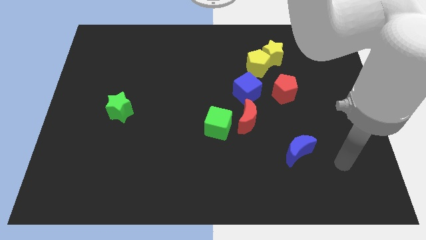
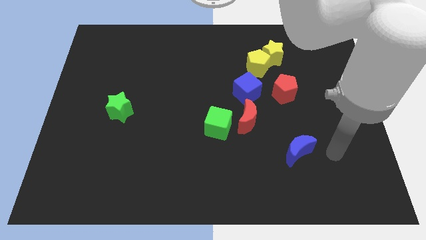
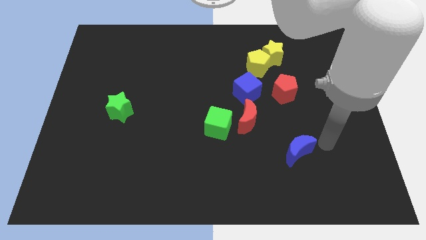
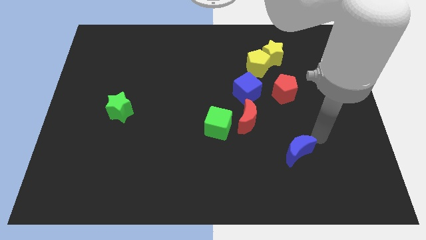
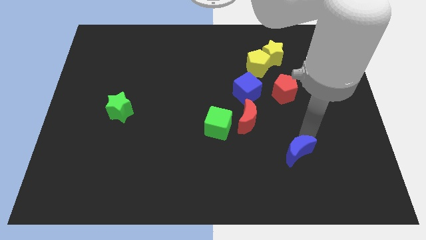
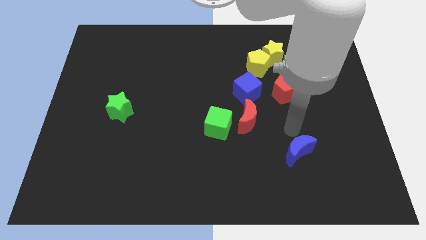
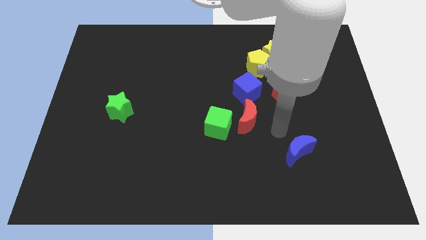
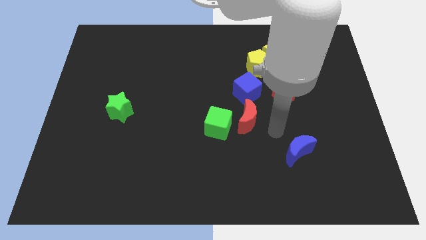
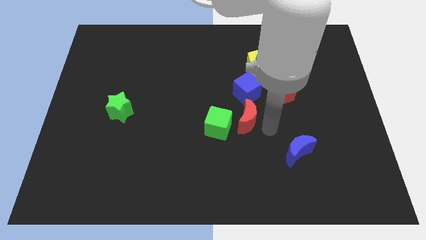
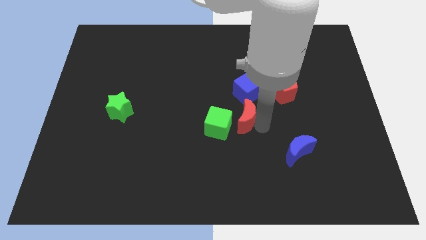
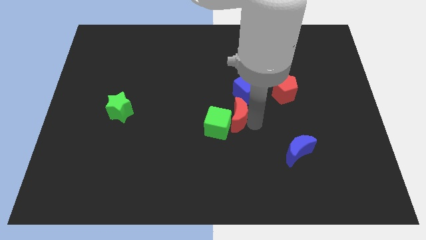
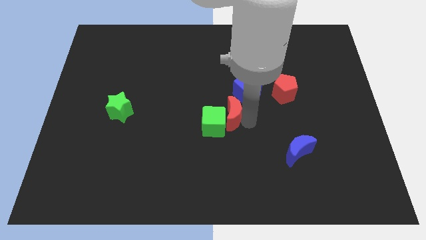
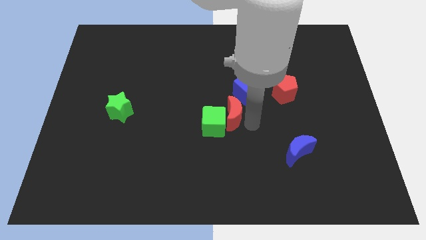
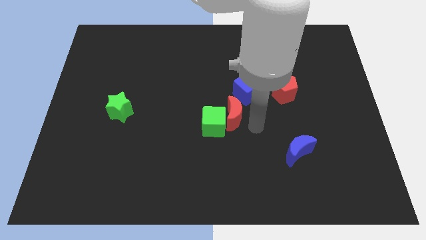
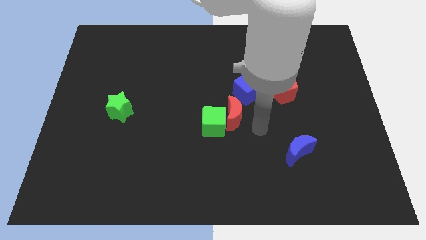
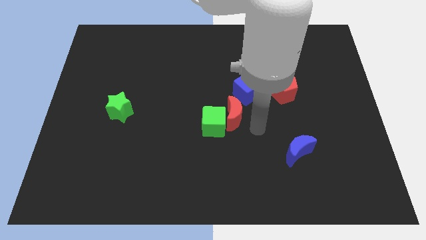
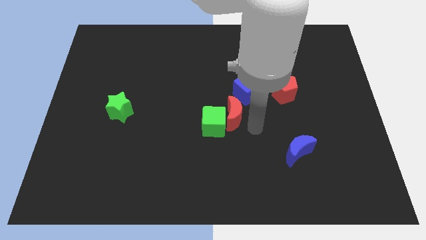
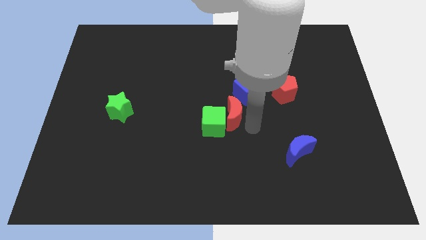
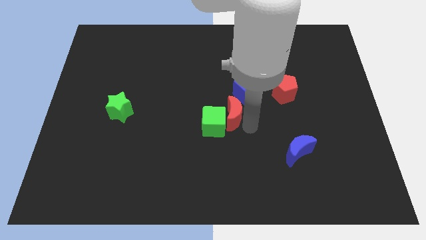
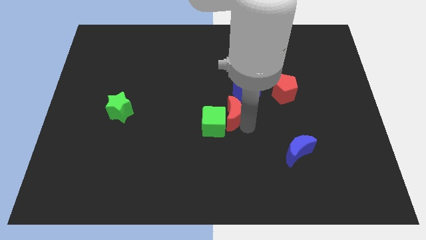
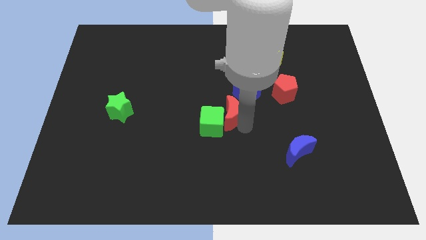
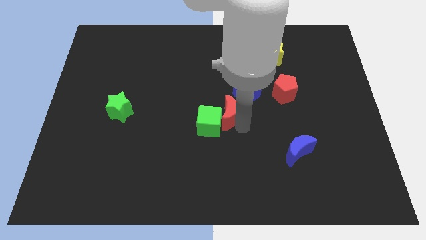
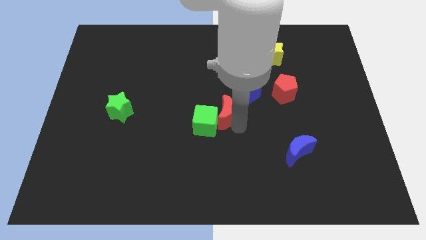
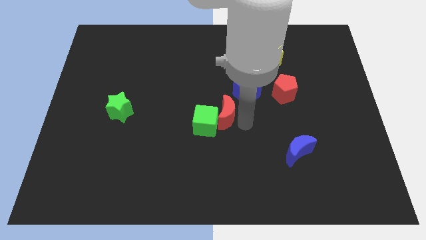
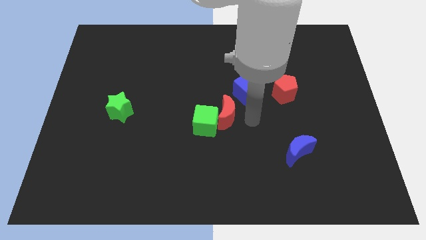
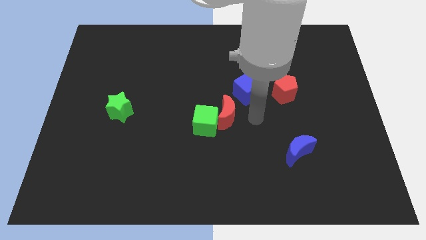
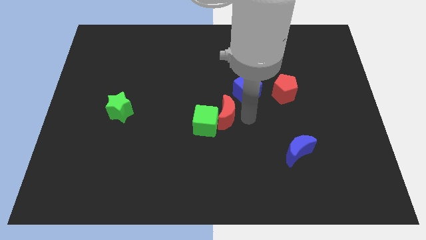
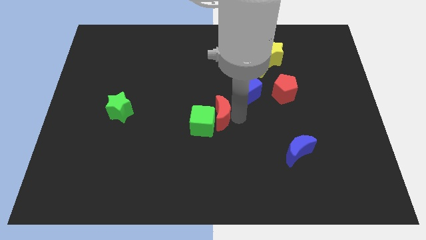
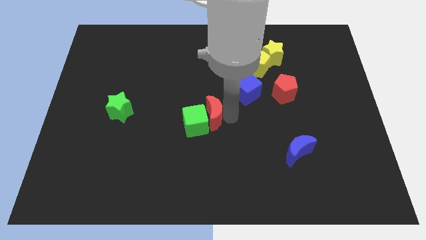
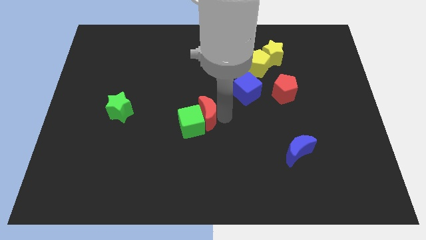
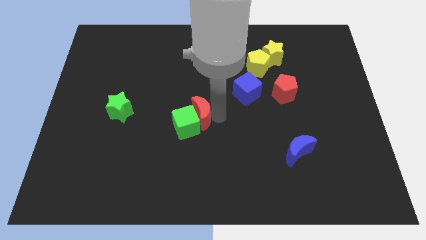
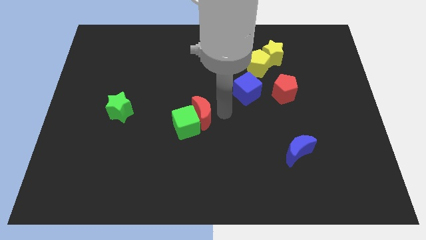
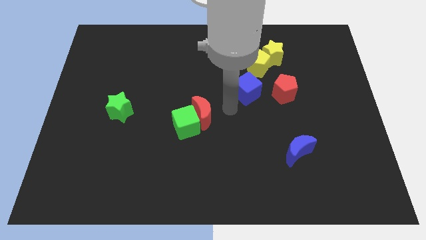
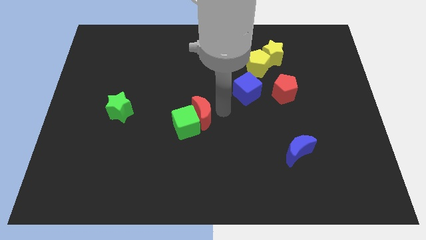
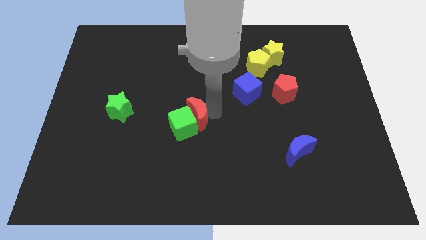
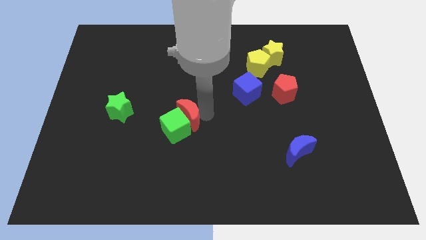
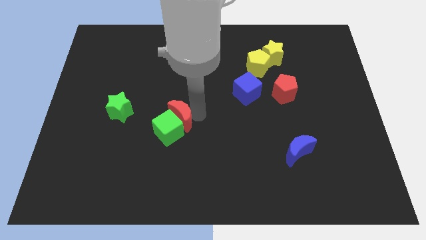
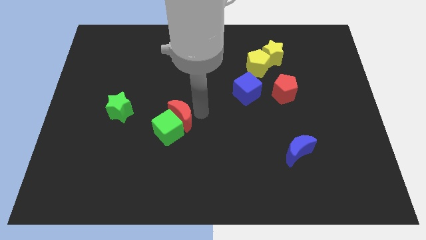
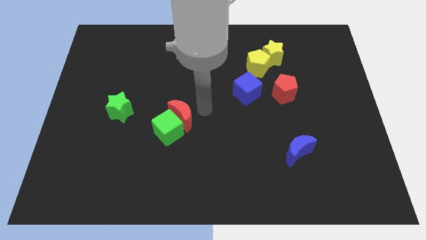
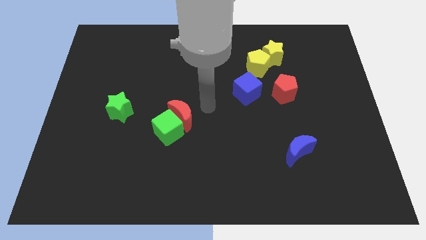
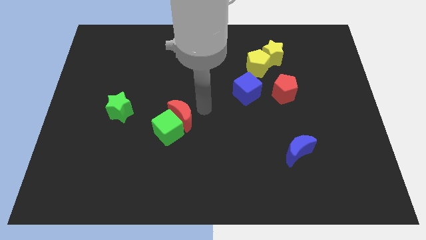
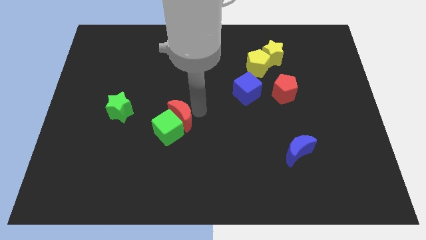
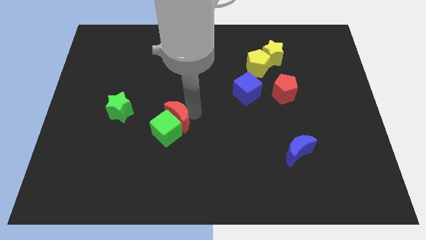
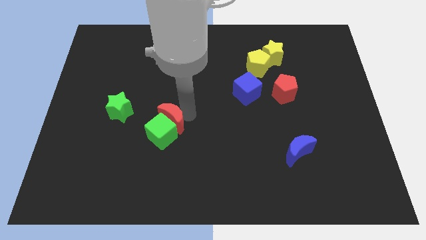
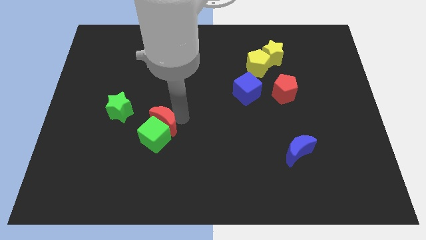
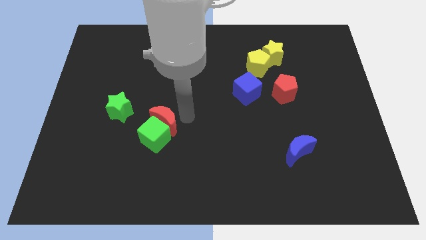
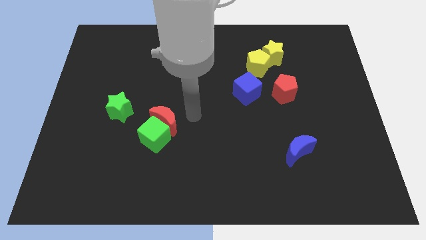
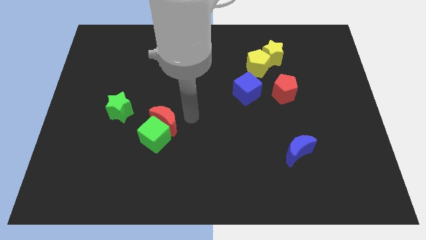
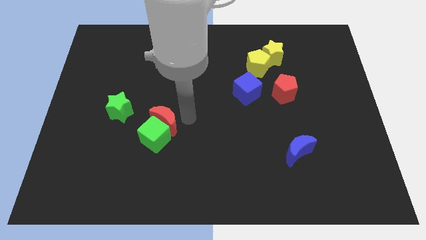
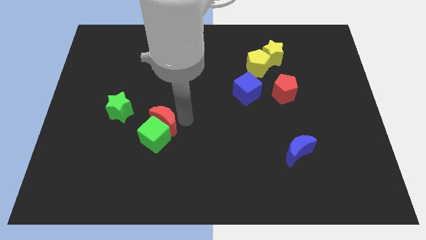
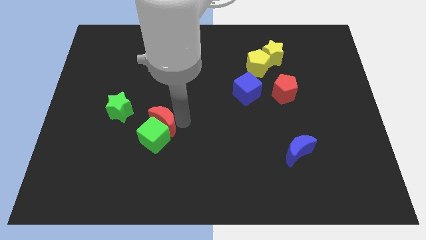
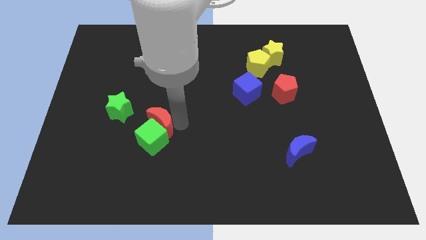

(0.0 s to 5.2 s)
put the red moon to the bottom right side of the green star

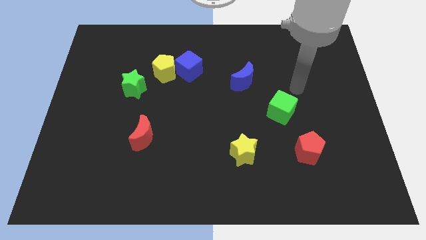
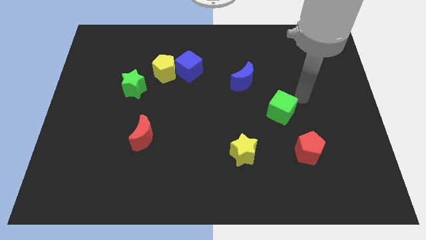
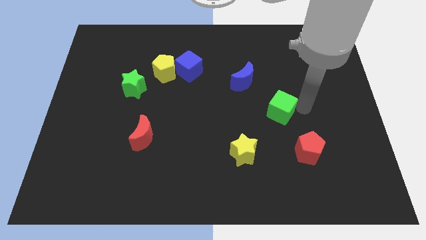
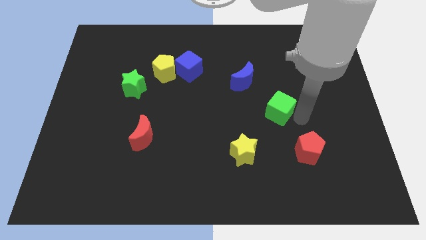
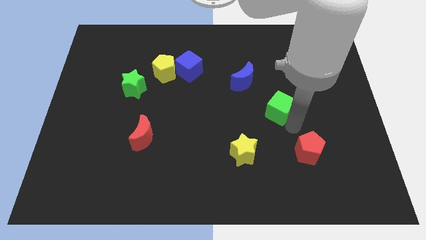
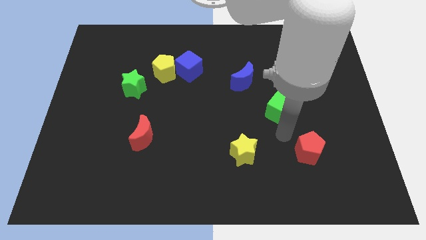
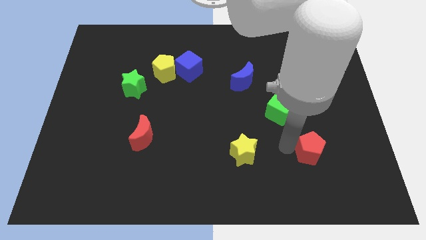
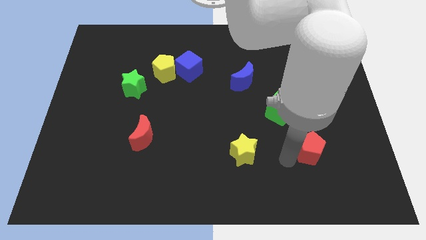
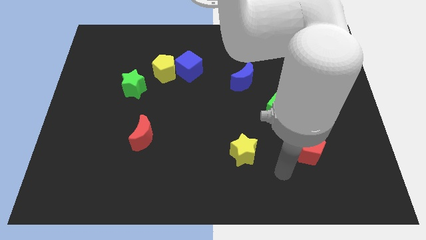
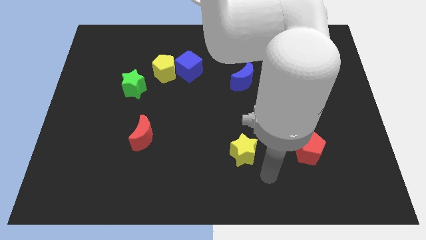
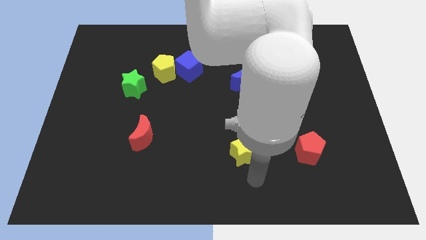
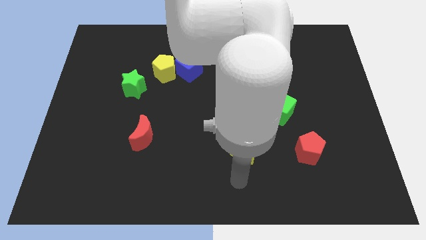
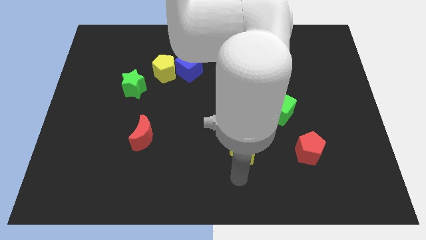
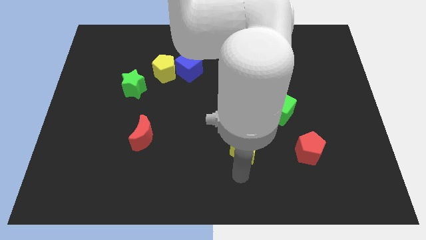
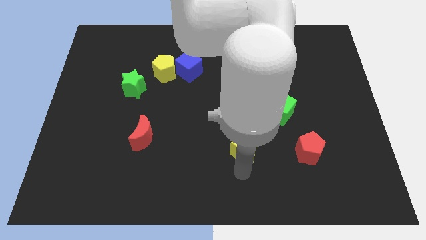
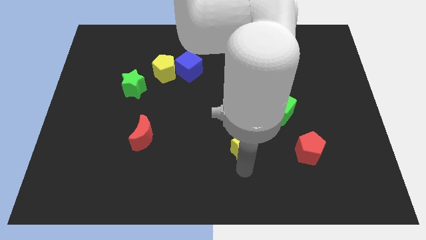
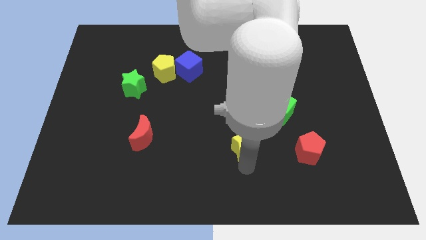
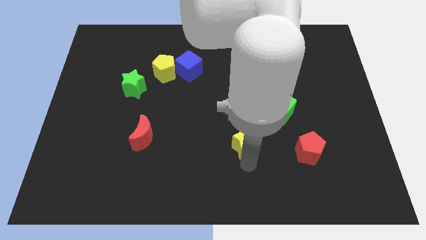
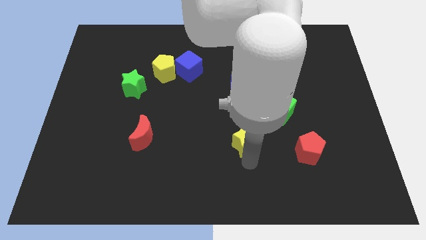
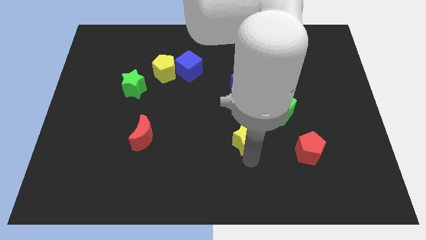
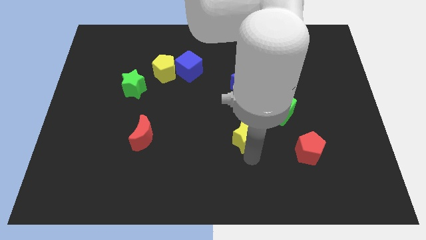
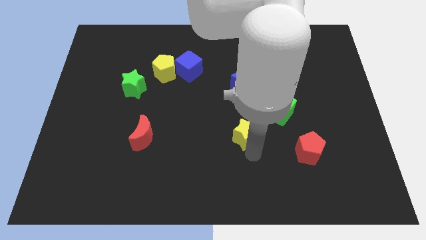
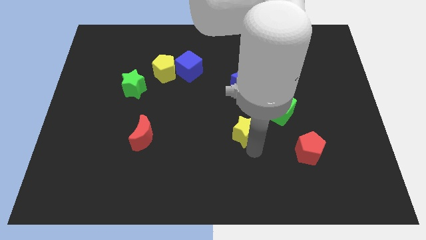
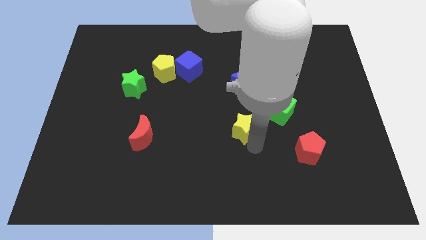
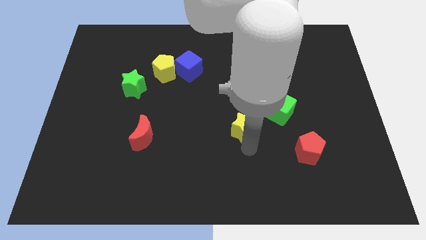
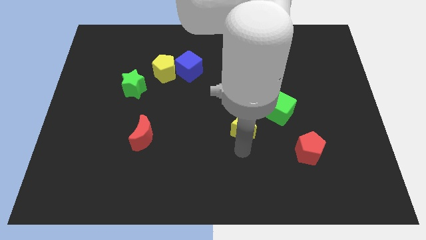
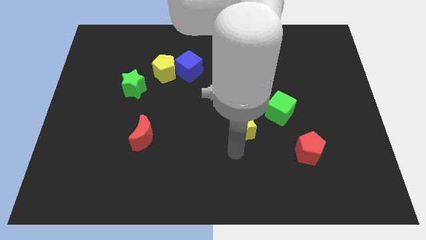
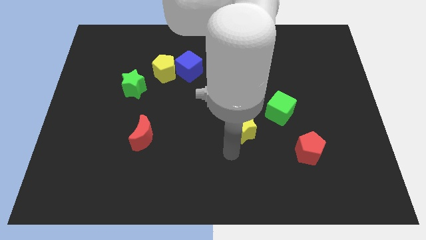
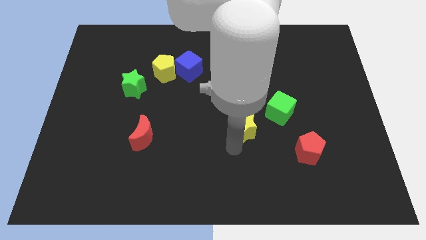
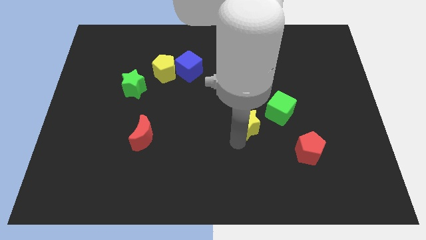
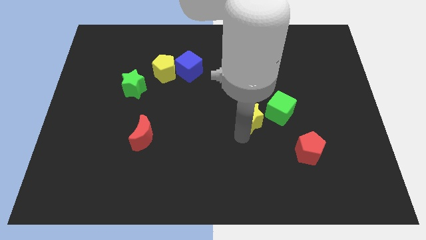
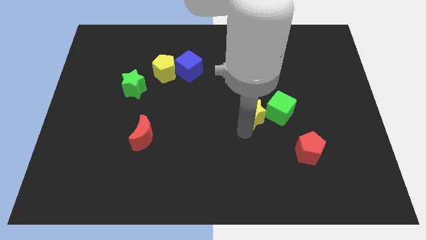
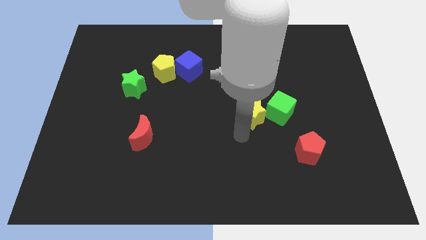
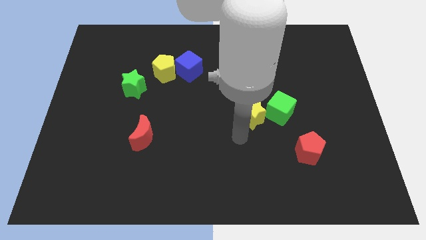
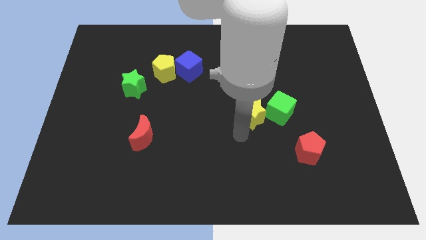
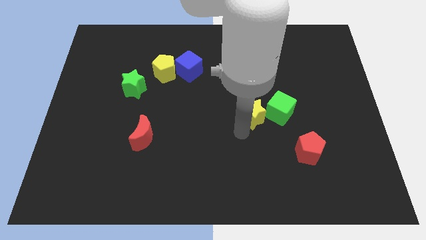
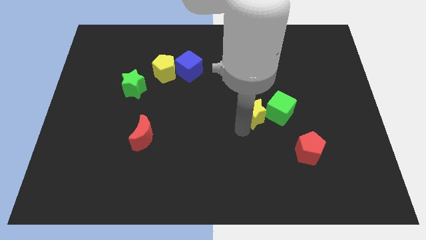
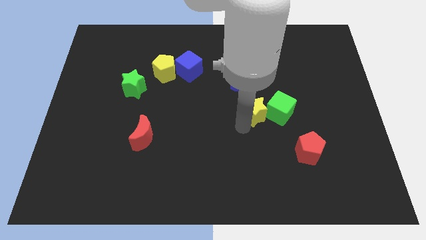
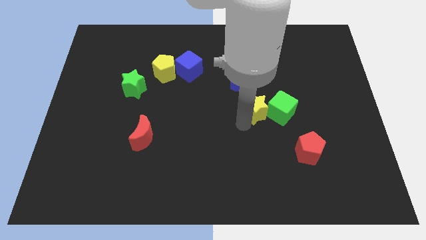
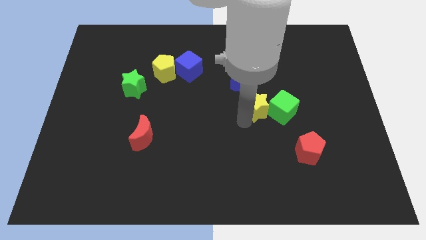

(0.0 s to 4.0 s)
slide the yellow star diagonally down and to the right of the blue moon
